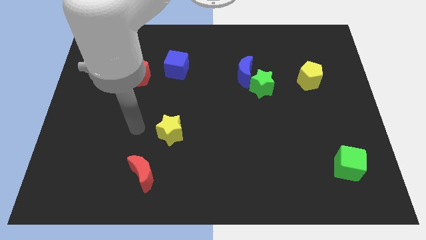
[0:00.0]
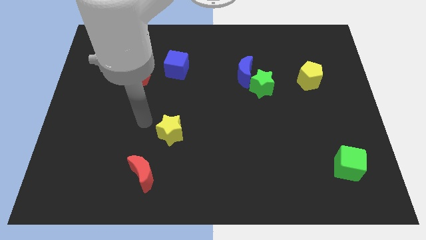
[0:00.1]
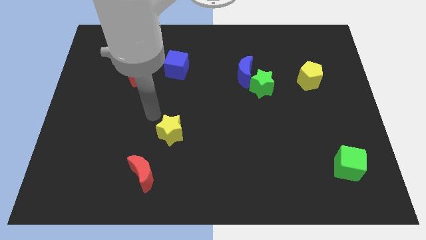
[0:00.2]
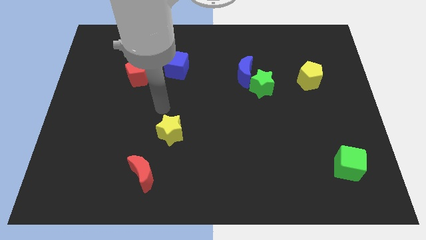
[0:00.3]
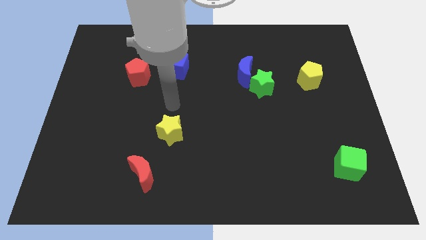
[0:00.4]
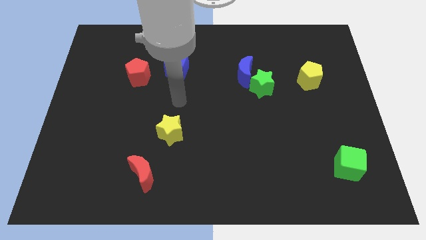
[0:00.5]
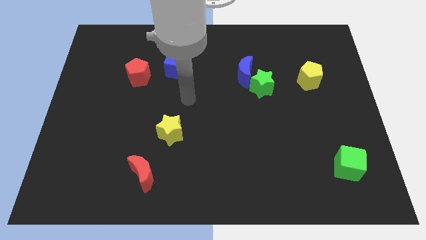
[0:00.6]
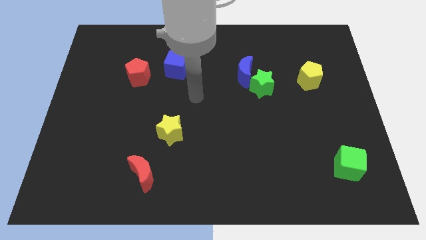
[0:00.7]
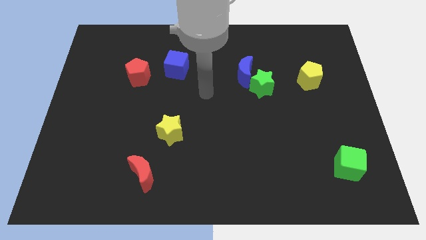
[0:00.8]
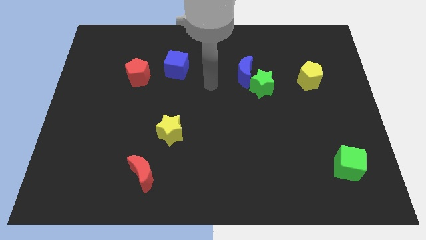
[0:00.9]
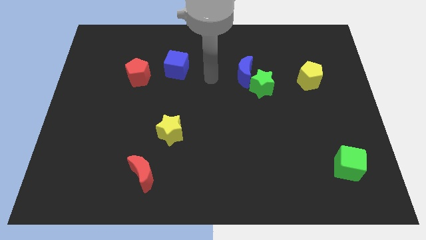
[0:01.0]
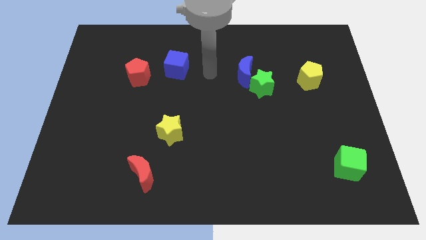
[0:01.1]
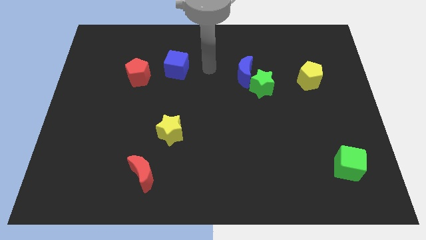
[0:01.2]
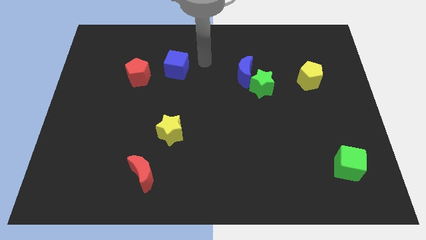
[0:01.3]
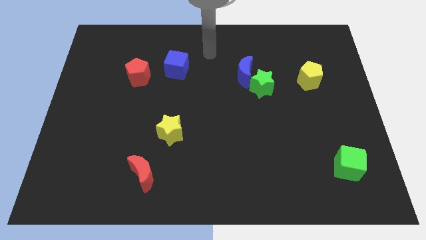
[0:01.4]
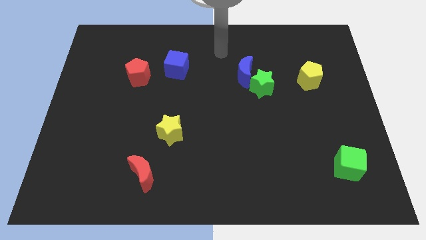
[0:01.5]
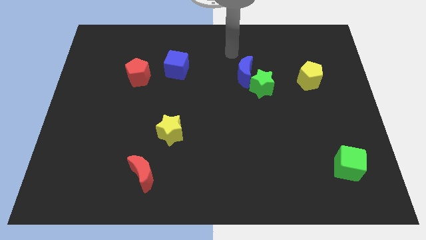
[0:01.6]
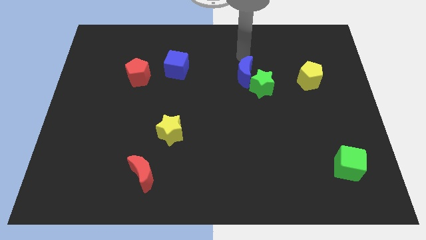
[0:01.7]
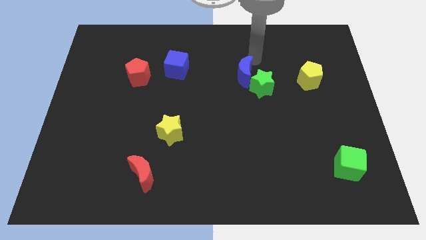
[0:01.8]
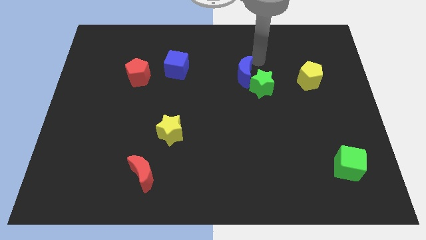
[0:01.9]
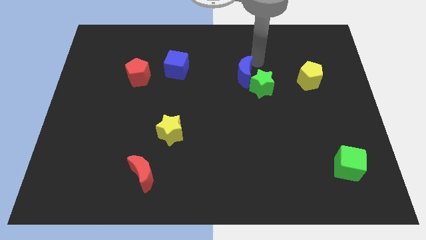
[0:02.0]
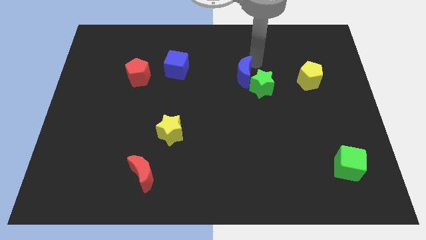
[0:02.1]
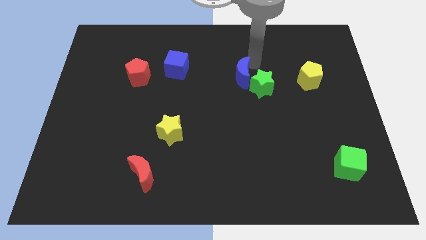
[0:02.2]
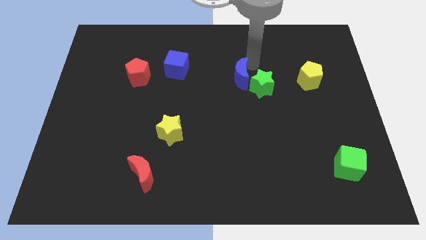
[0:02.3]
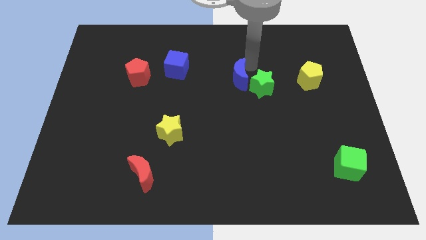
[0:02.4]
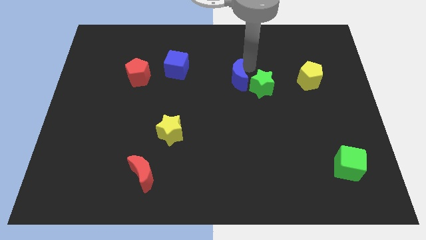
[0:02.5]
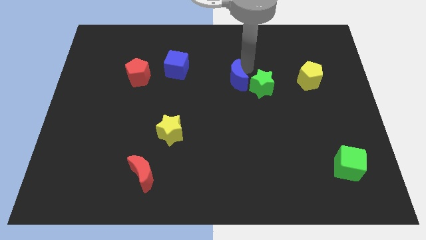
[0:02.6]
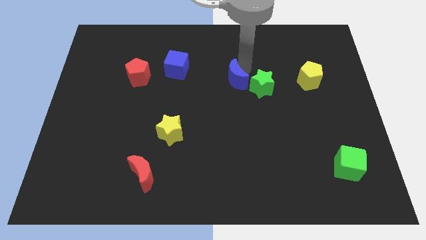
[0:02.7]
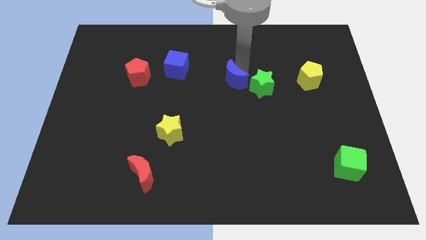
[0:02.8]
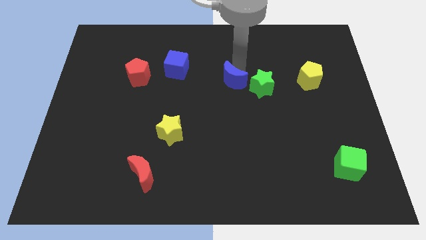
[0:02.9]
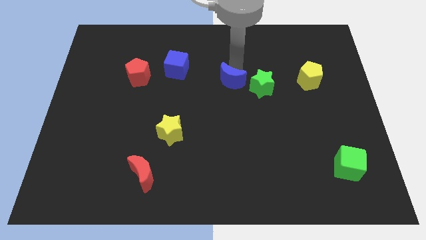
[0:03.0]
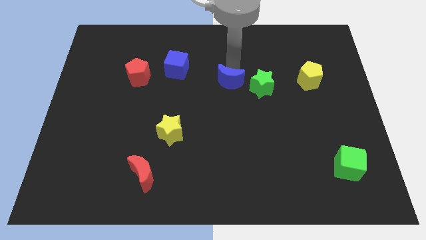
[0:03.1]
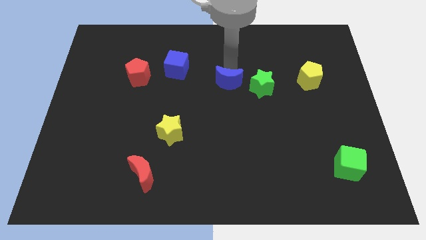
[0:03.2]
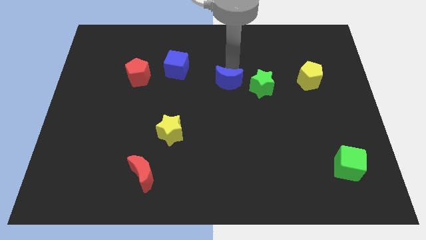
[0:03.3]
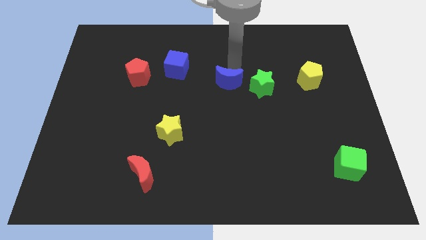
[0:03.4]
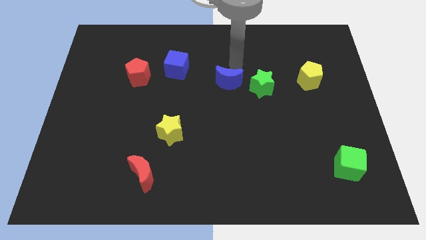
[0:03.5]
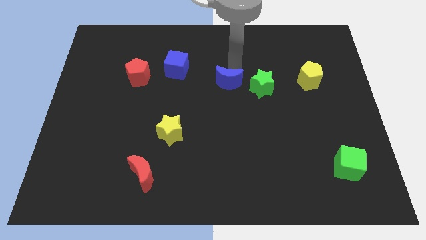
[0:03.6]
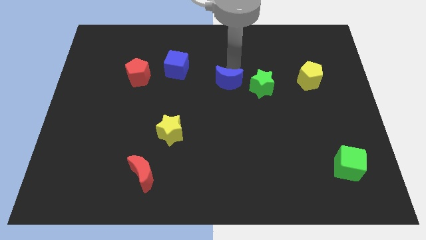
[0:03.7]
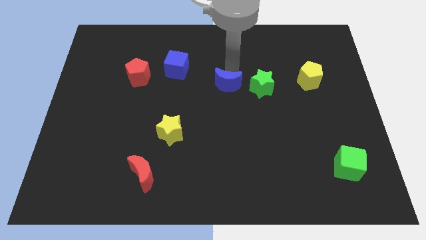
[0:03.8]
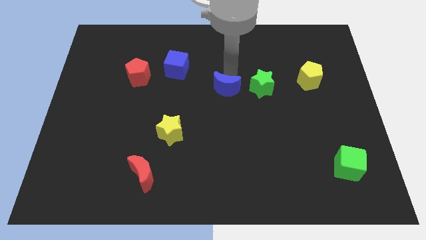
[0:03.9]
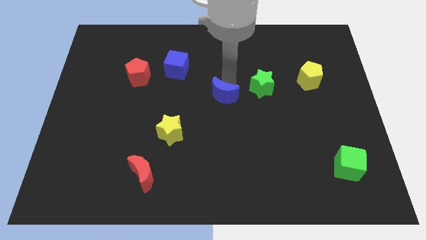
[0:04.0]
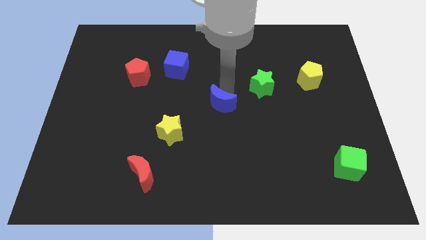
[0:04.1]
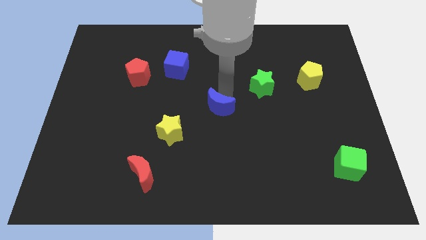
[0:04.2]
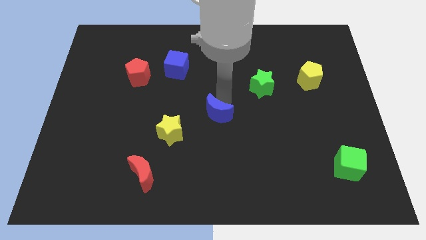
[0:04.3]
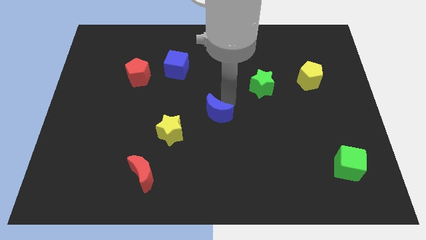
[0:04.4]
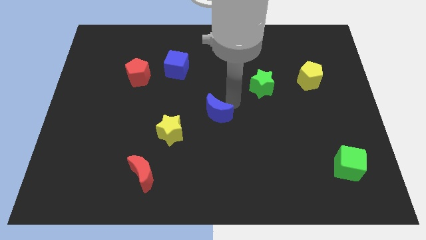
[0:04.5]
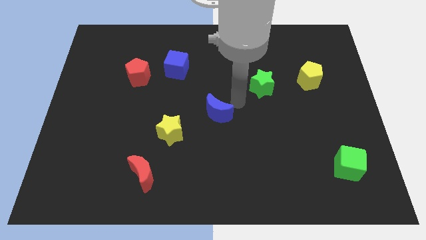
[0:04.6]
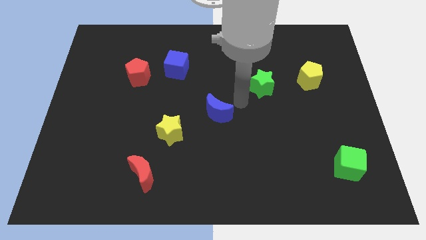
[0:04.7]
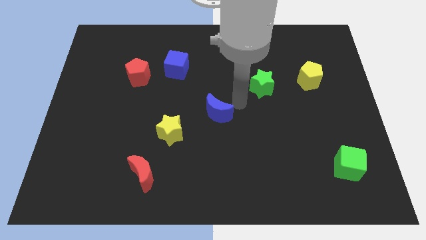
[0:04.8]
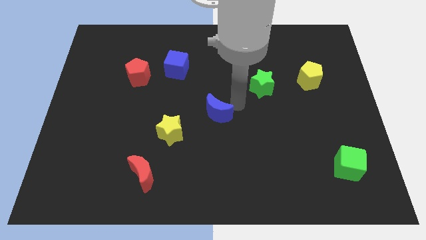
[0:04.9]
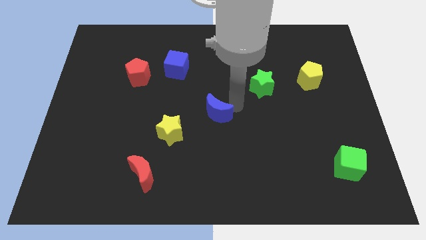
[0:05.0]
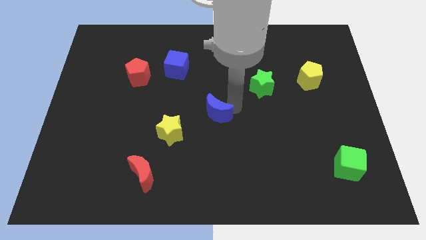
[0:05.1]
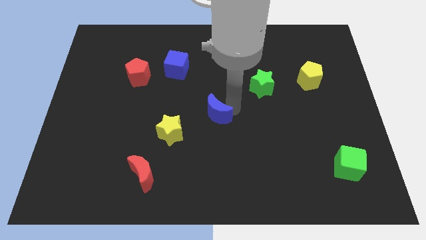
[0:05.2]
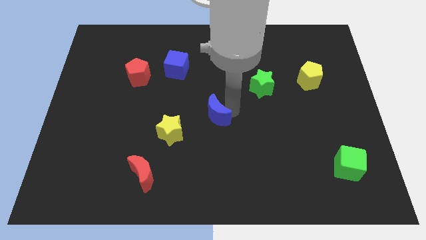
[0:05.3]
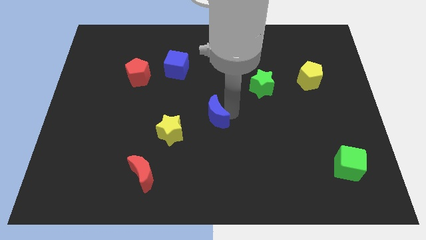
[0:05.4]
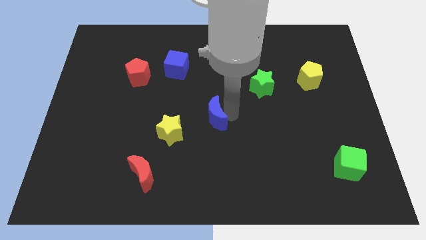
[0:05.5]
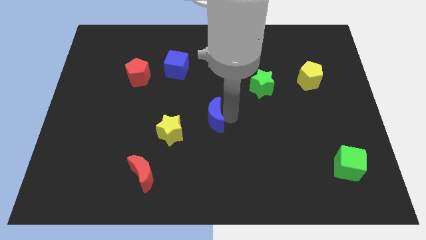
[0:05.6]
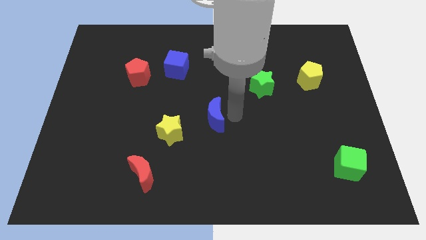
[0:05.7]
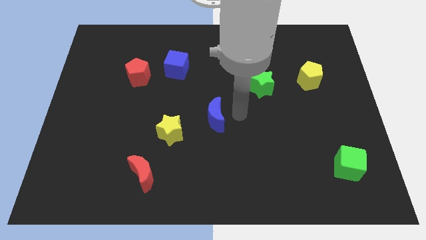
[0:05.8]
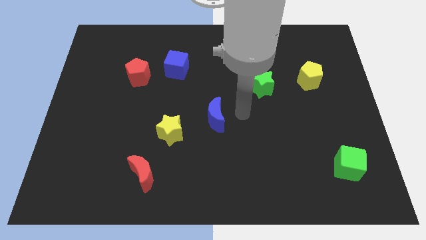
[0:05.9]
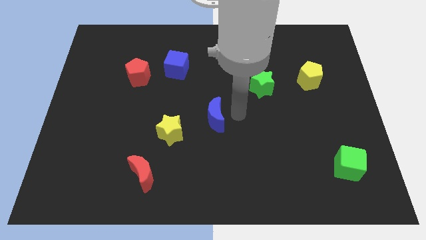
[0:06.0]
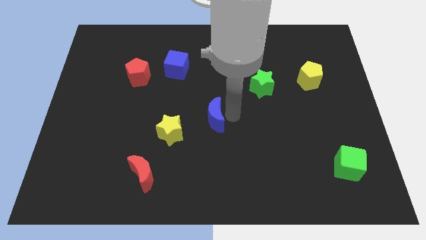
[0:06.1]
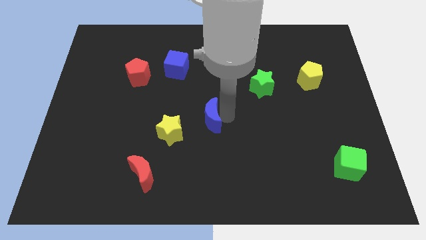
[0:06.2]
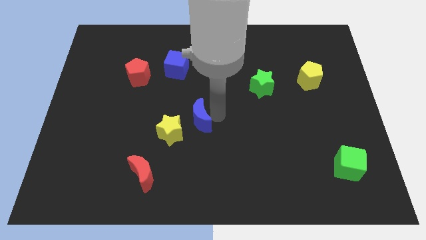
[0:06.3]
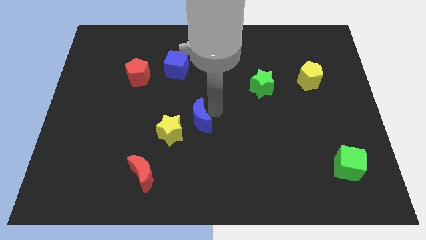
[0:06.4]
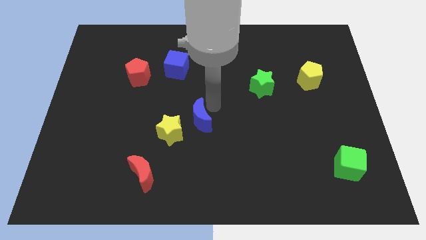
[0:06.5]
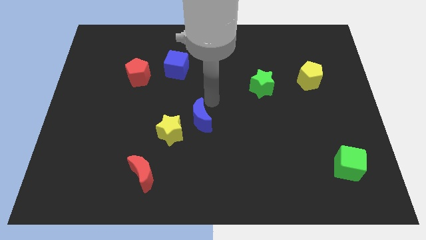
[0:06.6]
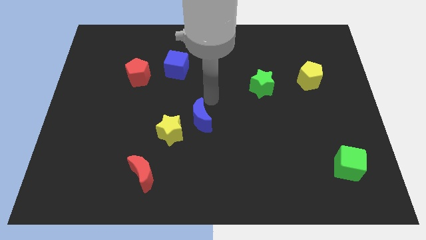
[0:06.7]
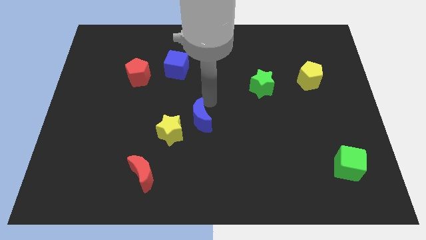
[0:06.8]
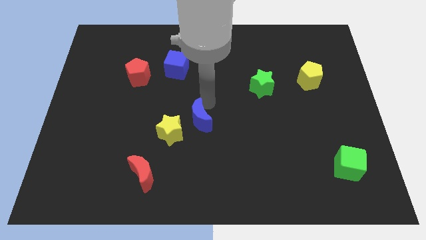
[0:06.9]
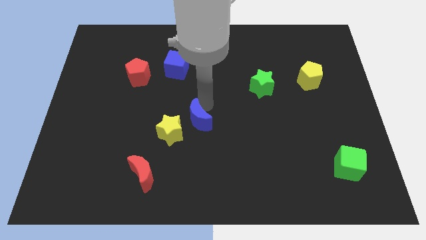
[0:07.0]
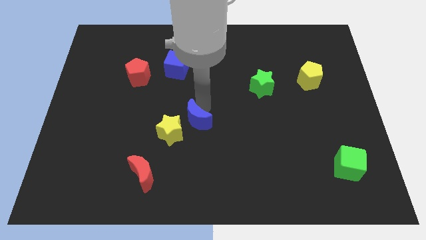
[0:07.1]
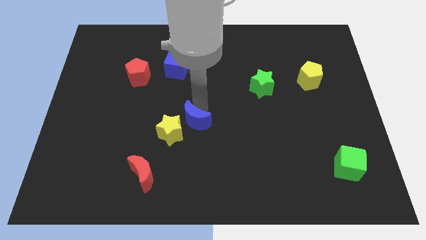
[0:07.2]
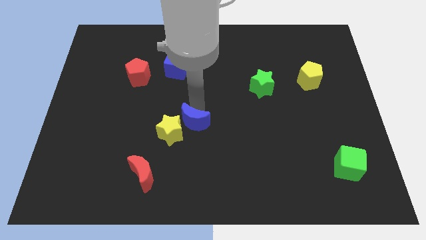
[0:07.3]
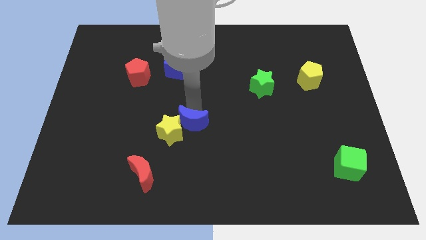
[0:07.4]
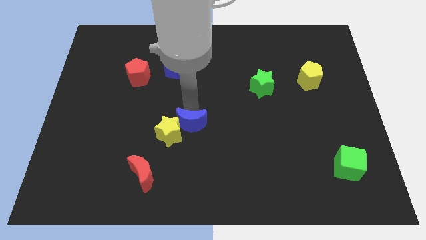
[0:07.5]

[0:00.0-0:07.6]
slide the blue moon diagonally down and to the left

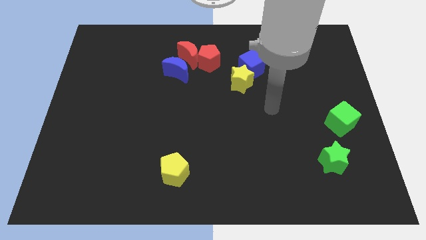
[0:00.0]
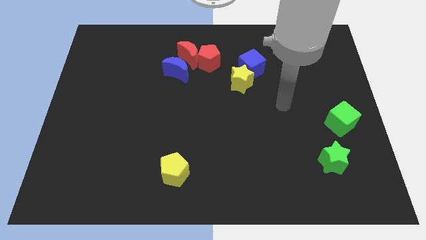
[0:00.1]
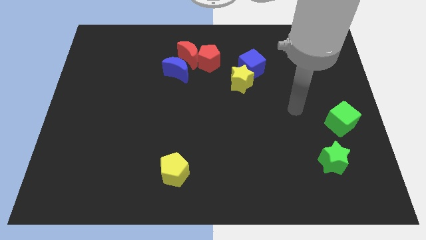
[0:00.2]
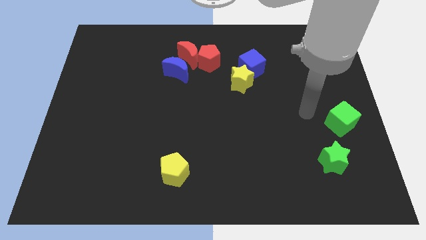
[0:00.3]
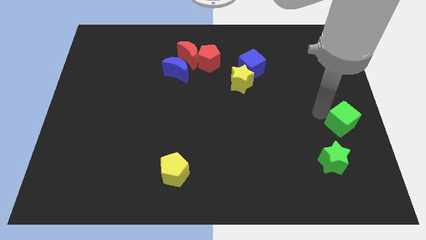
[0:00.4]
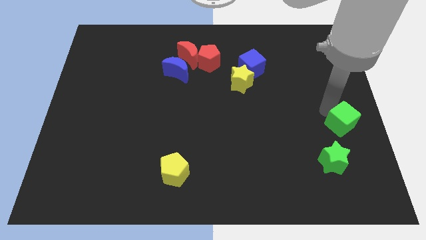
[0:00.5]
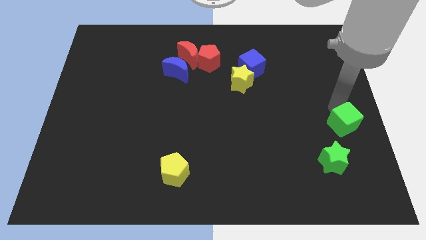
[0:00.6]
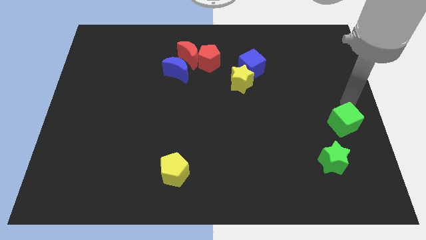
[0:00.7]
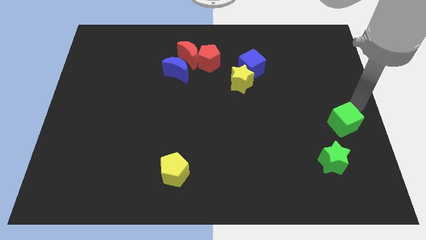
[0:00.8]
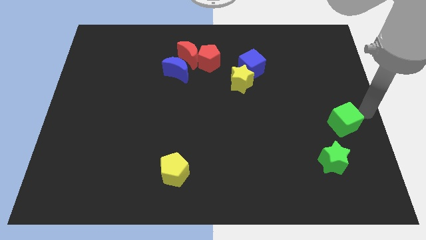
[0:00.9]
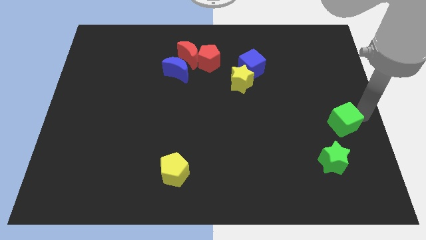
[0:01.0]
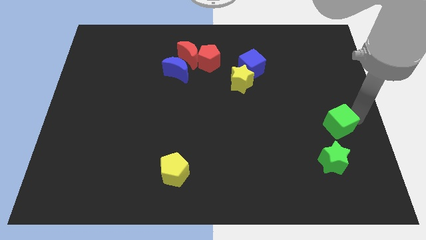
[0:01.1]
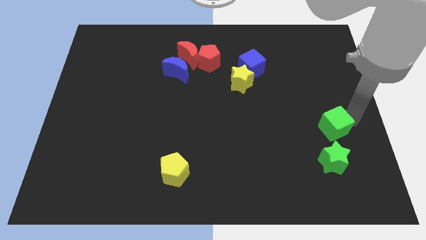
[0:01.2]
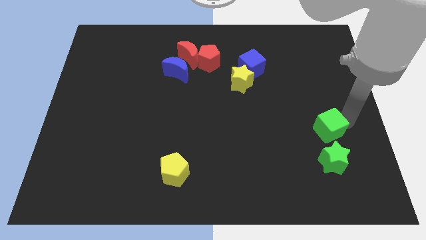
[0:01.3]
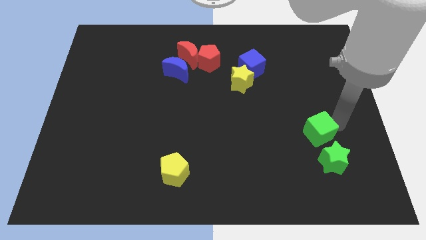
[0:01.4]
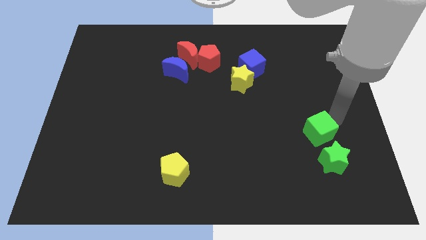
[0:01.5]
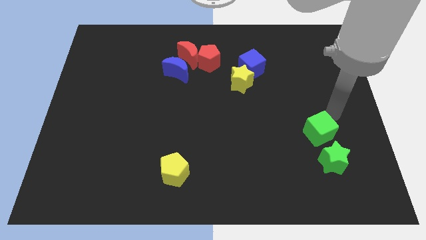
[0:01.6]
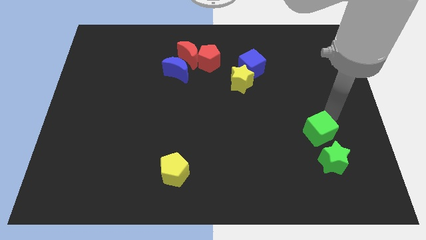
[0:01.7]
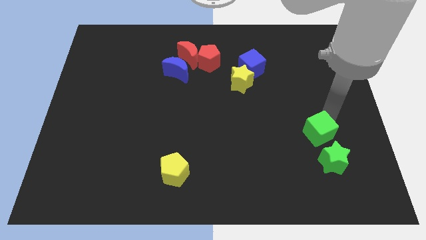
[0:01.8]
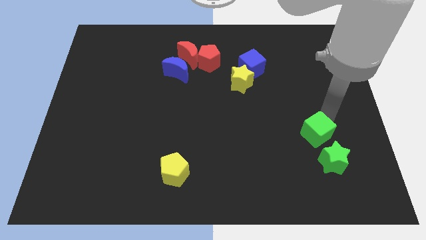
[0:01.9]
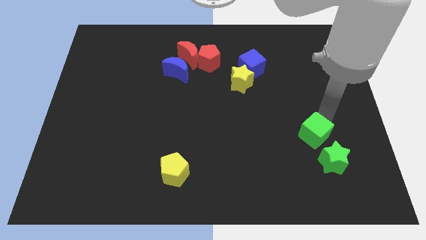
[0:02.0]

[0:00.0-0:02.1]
slightly move the green cube diagonally down and left
